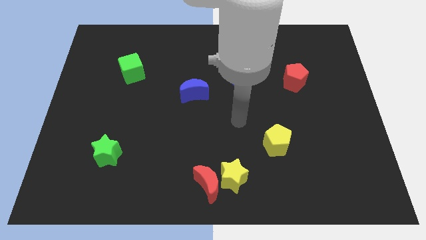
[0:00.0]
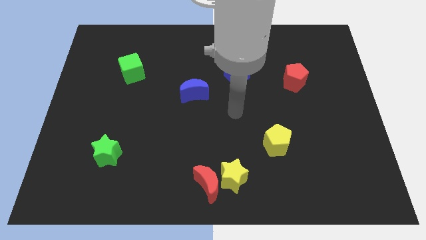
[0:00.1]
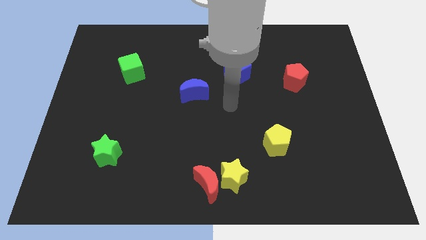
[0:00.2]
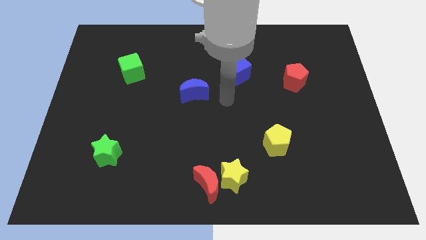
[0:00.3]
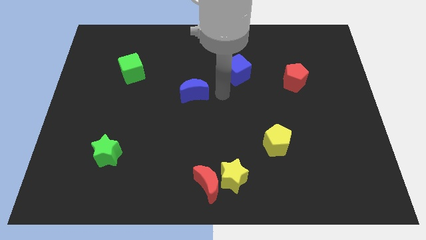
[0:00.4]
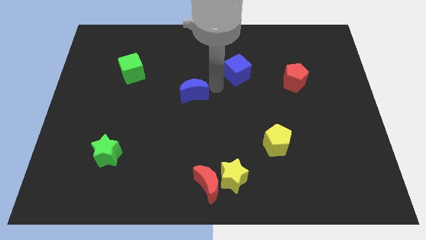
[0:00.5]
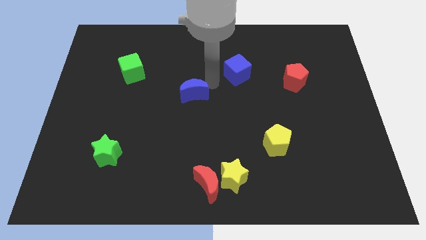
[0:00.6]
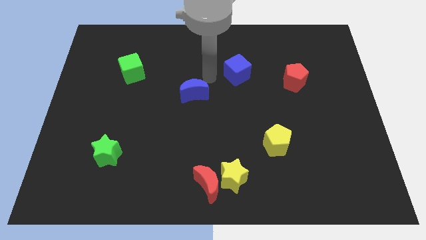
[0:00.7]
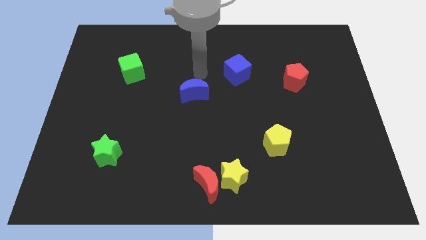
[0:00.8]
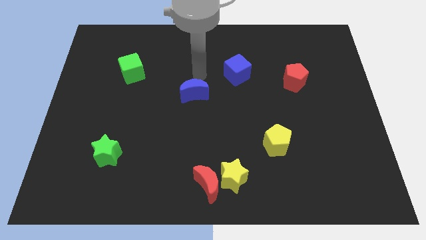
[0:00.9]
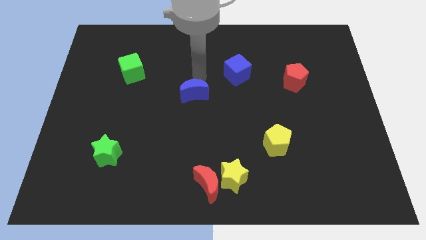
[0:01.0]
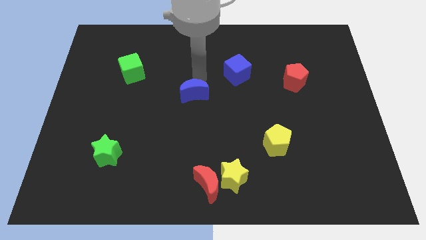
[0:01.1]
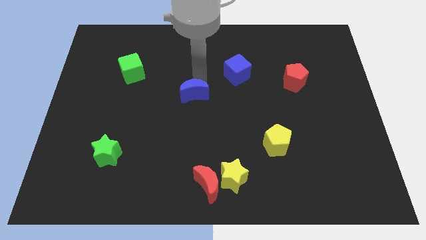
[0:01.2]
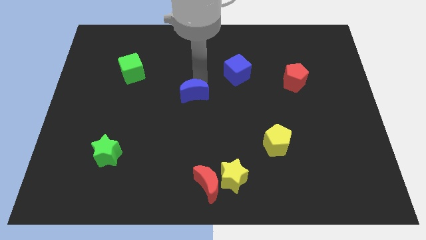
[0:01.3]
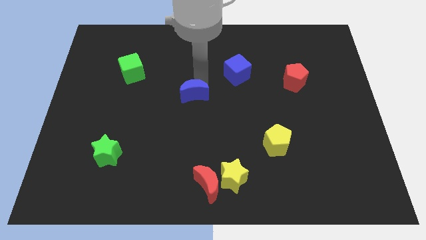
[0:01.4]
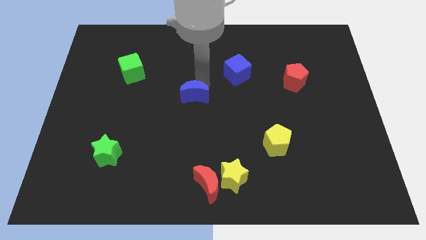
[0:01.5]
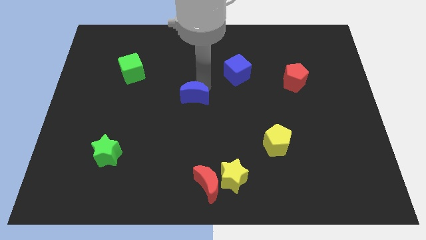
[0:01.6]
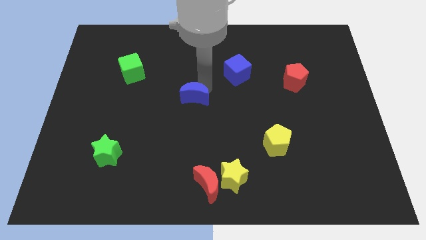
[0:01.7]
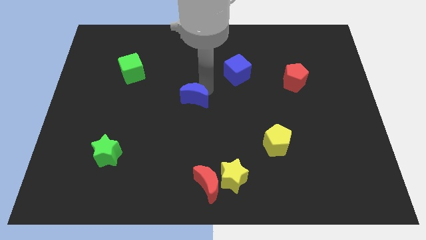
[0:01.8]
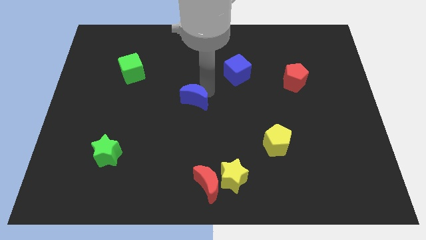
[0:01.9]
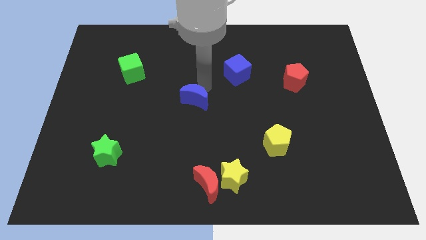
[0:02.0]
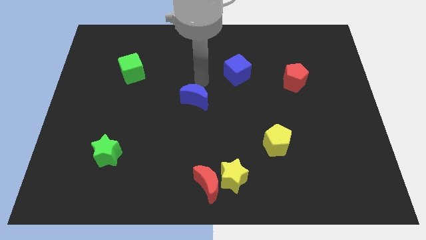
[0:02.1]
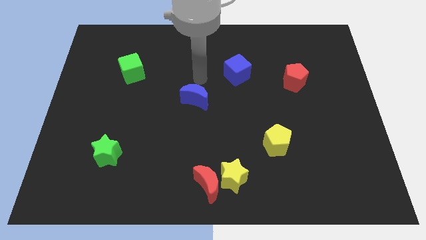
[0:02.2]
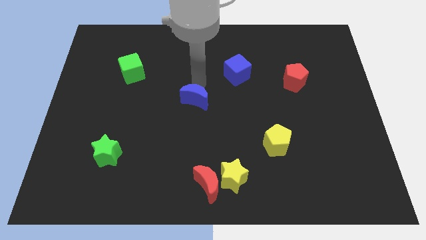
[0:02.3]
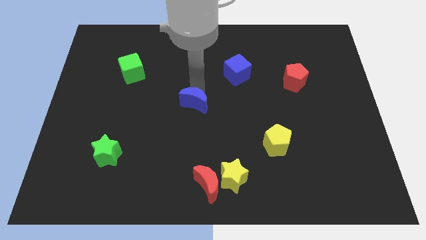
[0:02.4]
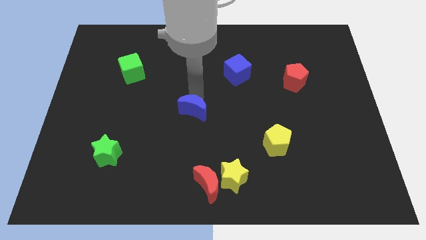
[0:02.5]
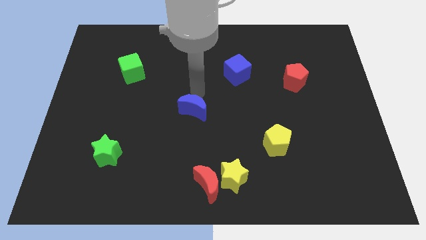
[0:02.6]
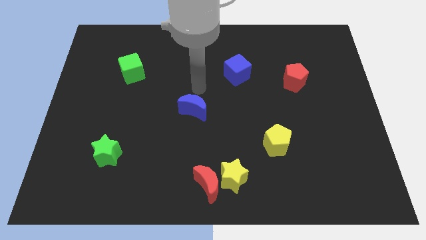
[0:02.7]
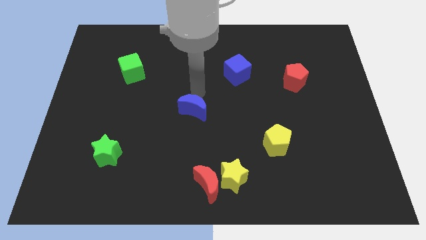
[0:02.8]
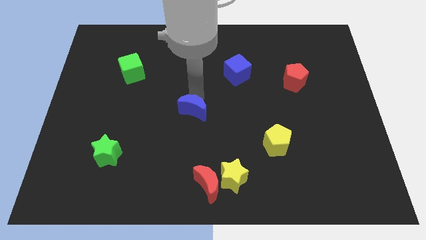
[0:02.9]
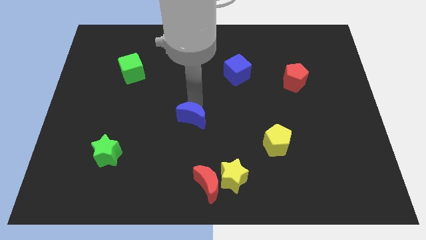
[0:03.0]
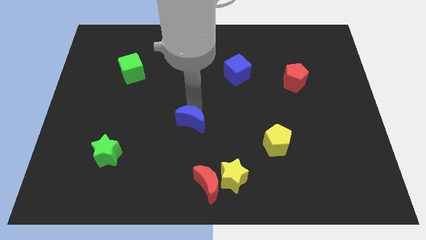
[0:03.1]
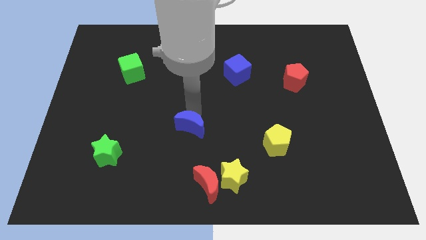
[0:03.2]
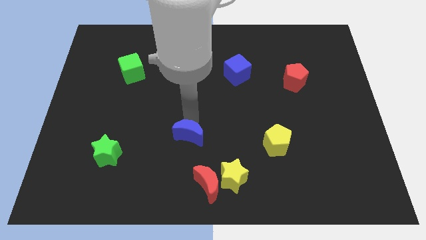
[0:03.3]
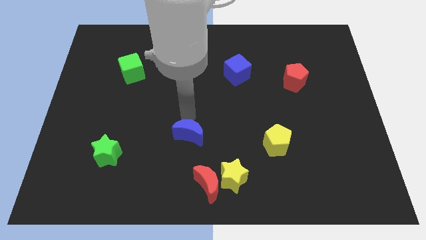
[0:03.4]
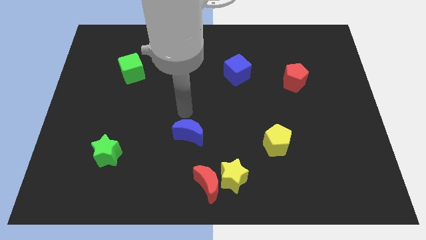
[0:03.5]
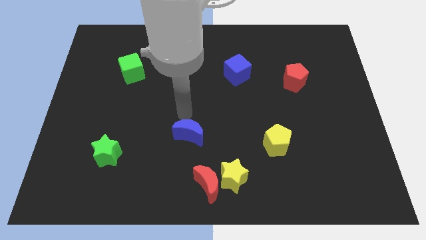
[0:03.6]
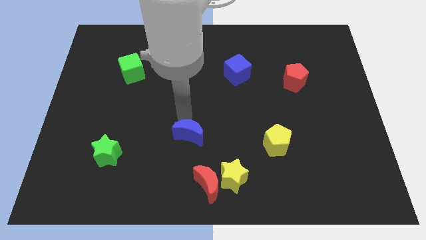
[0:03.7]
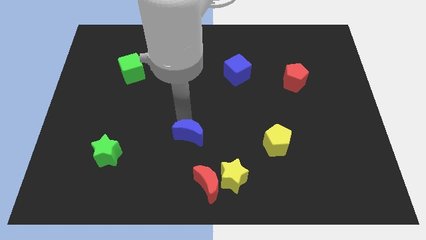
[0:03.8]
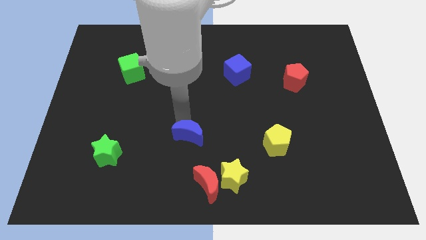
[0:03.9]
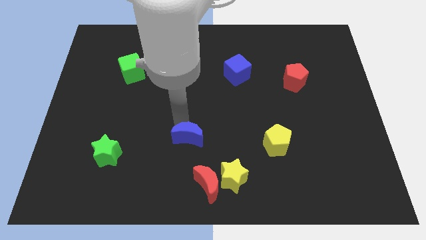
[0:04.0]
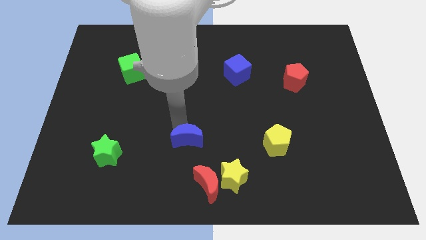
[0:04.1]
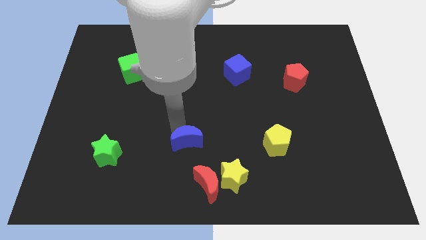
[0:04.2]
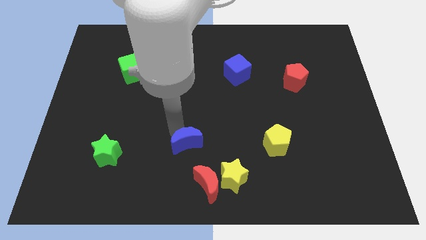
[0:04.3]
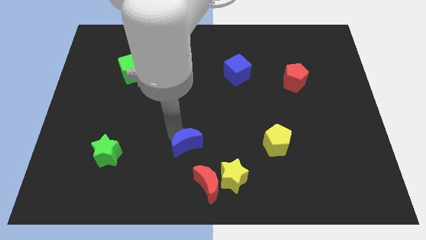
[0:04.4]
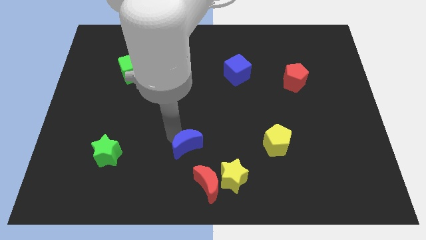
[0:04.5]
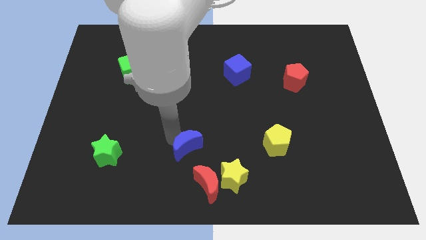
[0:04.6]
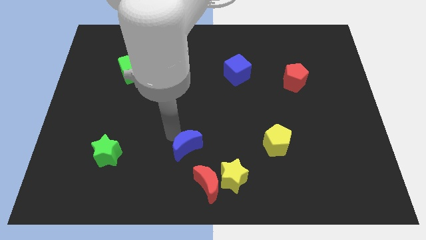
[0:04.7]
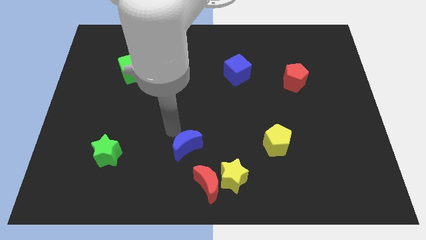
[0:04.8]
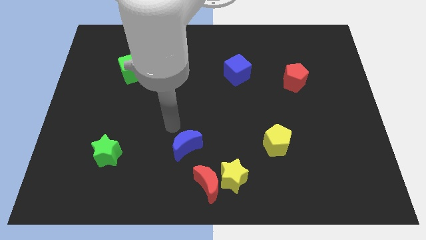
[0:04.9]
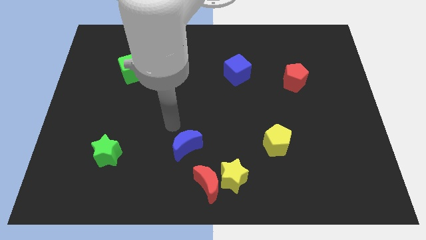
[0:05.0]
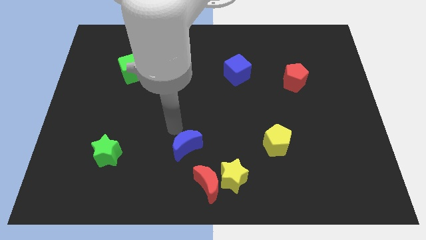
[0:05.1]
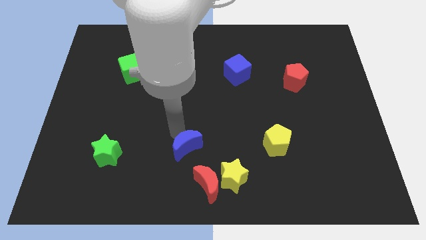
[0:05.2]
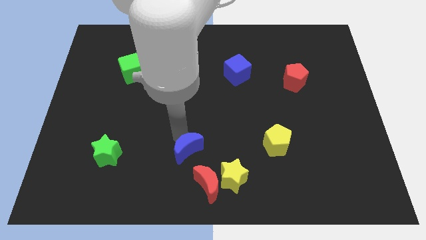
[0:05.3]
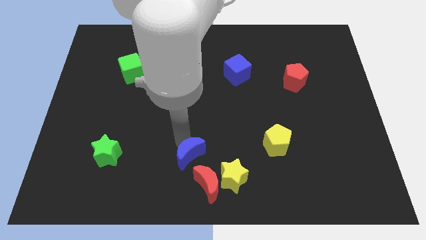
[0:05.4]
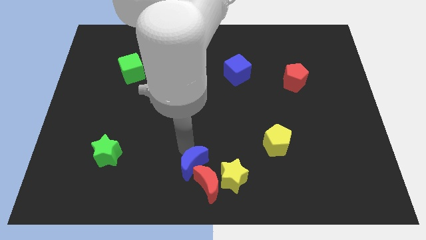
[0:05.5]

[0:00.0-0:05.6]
put the blue moon next to the red moon

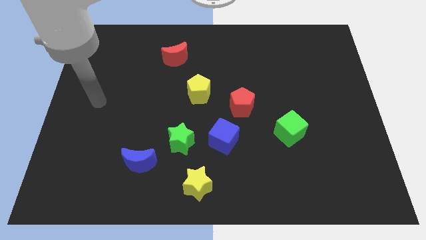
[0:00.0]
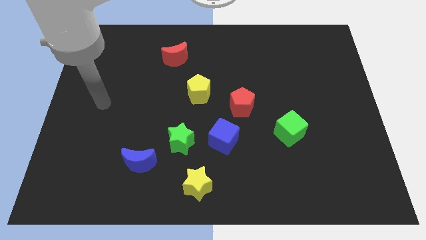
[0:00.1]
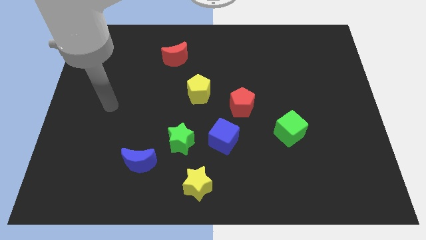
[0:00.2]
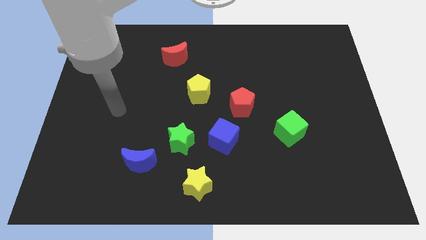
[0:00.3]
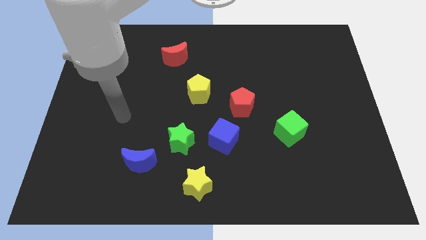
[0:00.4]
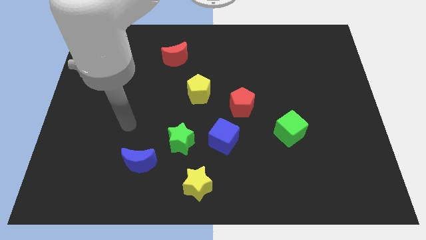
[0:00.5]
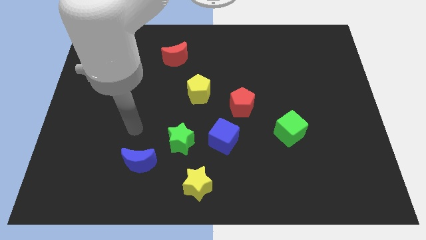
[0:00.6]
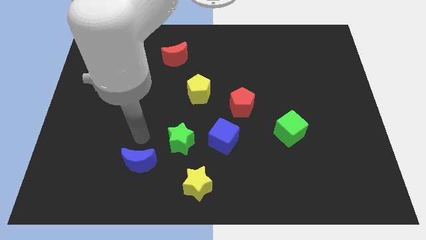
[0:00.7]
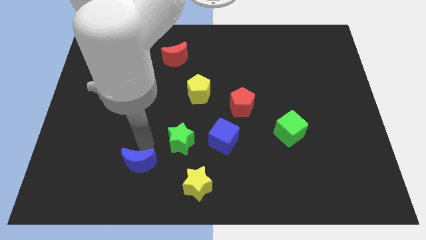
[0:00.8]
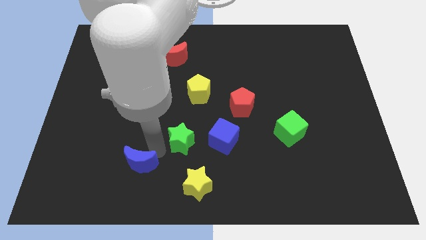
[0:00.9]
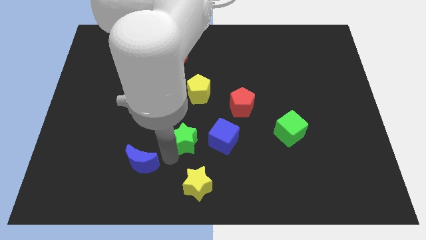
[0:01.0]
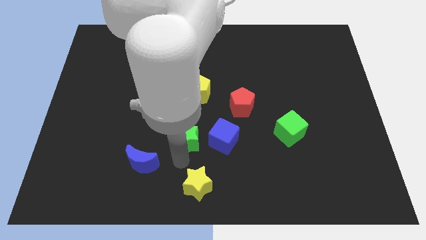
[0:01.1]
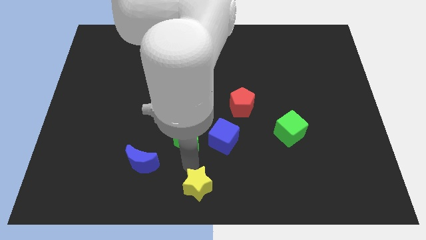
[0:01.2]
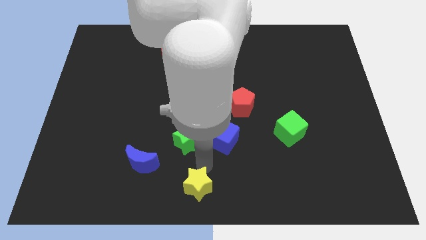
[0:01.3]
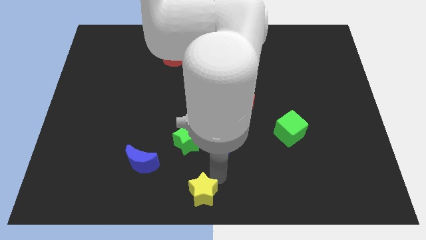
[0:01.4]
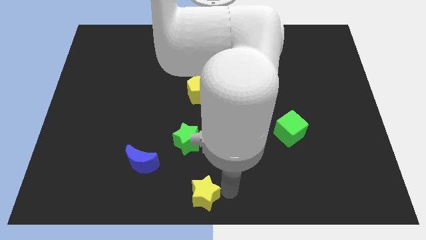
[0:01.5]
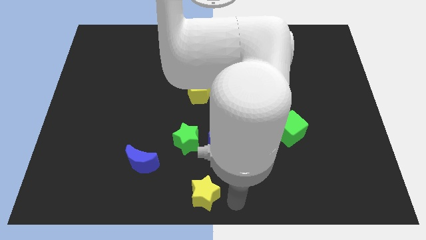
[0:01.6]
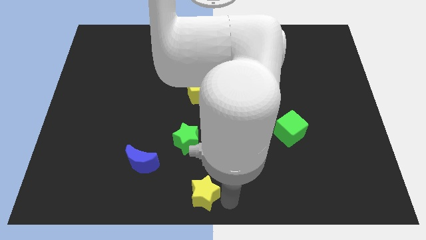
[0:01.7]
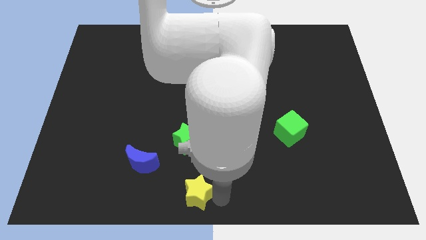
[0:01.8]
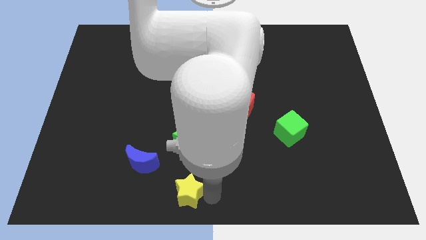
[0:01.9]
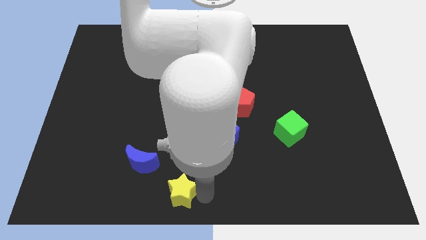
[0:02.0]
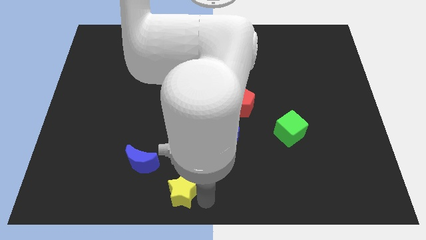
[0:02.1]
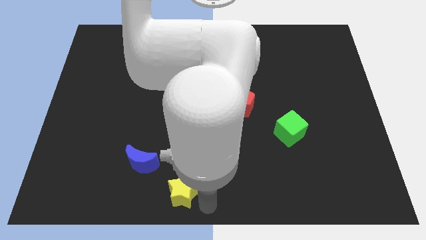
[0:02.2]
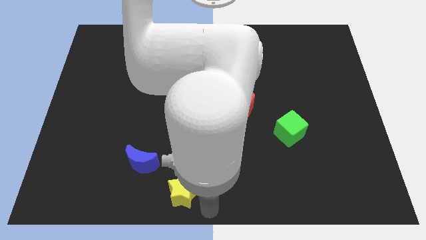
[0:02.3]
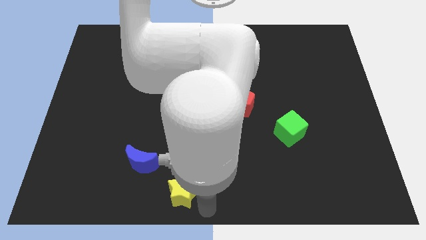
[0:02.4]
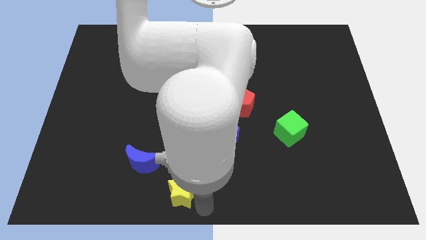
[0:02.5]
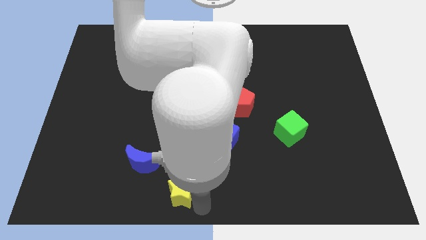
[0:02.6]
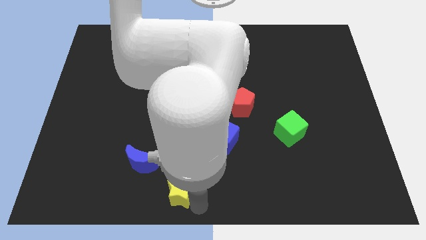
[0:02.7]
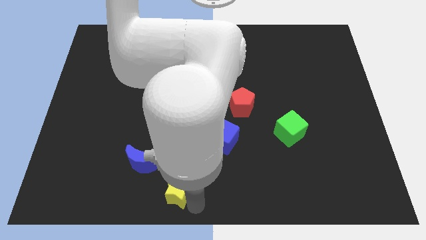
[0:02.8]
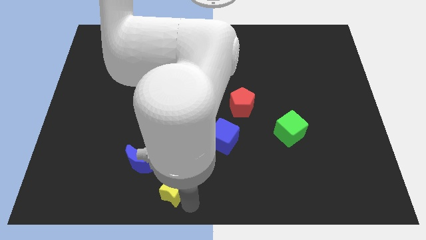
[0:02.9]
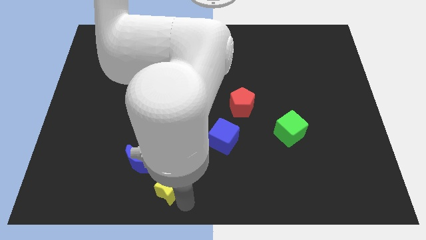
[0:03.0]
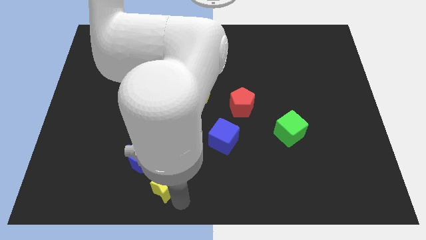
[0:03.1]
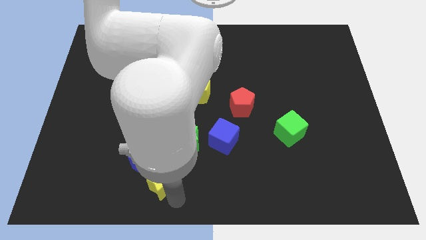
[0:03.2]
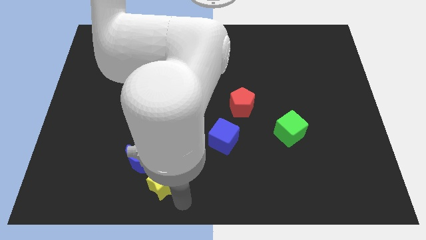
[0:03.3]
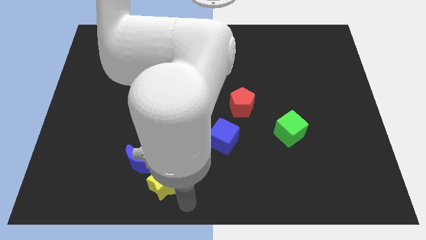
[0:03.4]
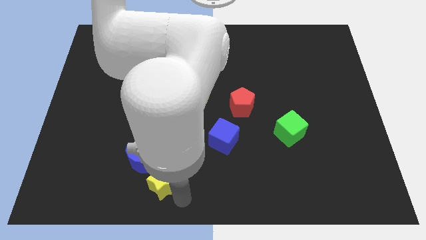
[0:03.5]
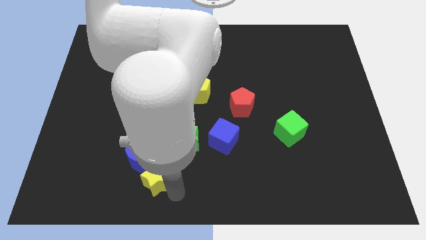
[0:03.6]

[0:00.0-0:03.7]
move the yellow star towards the blue moon
